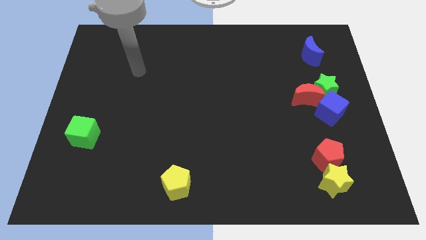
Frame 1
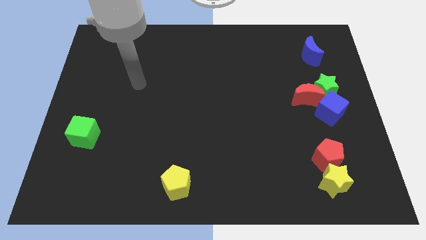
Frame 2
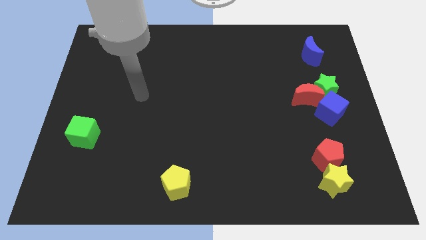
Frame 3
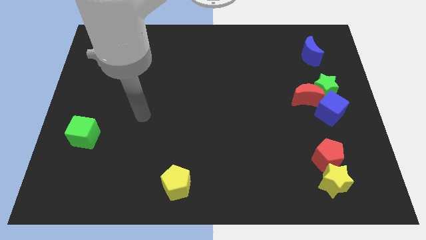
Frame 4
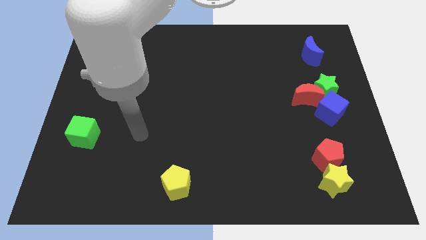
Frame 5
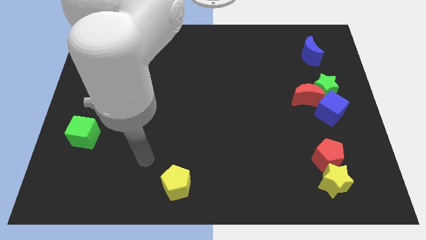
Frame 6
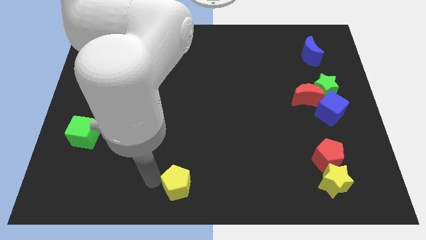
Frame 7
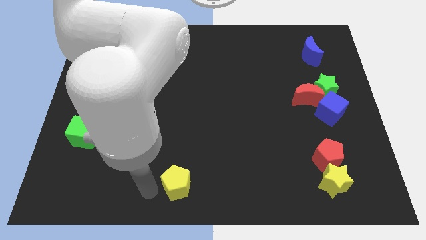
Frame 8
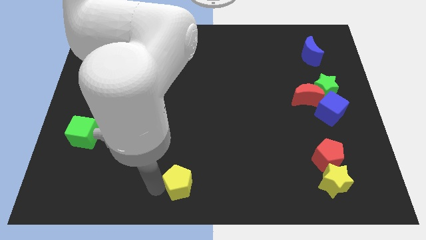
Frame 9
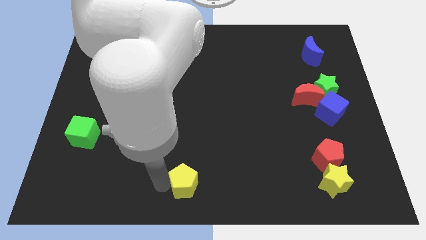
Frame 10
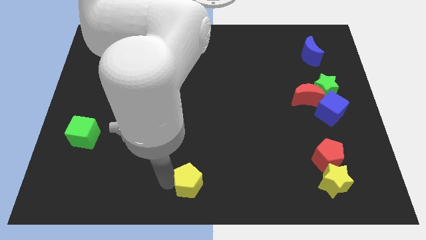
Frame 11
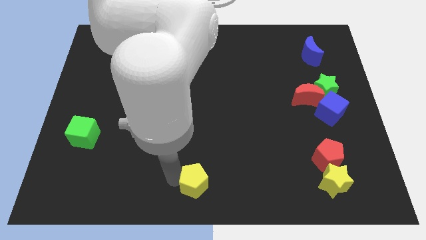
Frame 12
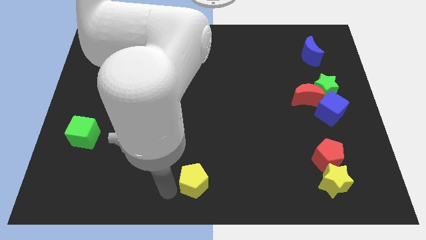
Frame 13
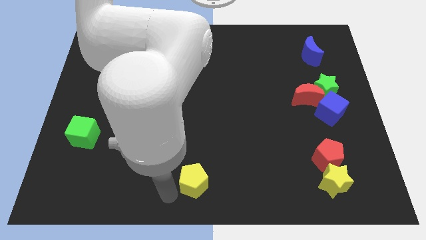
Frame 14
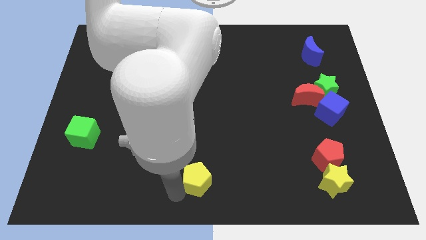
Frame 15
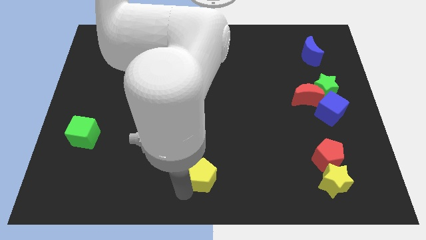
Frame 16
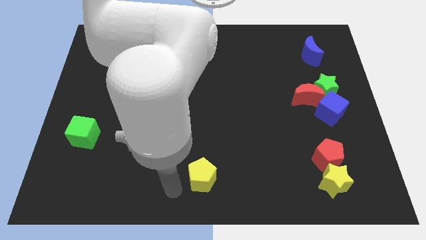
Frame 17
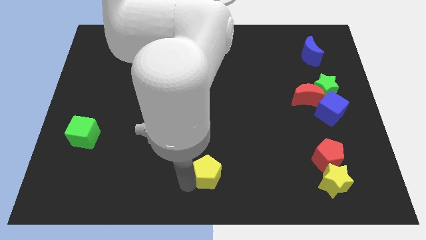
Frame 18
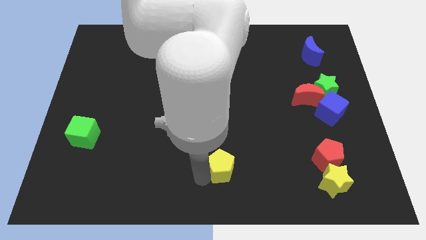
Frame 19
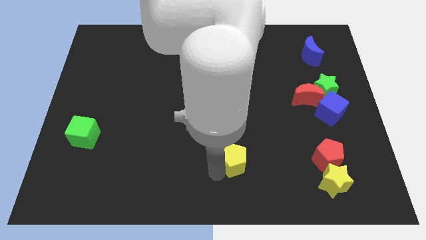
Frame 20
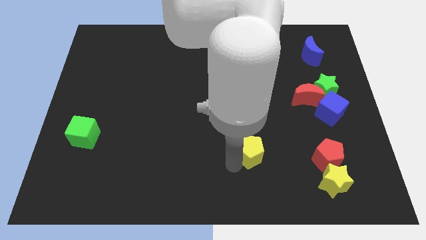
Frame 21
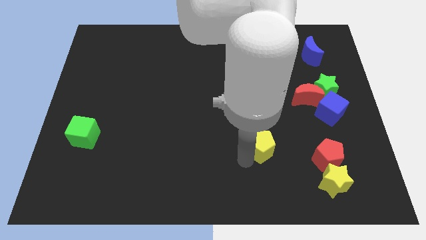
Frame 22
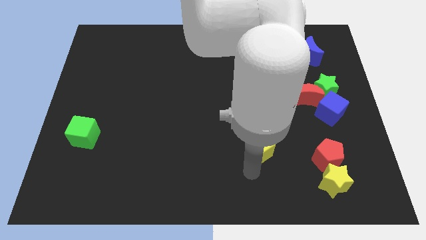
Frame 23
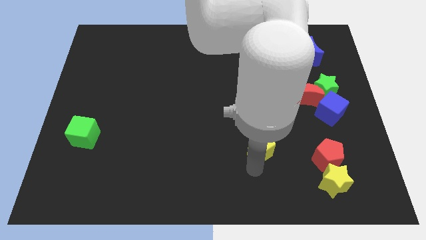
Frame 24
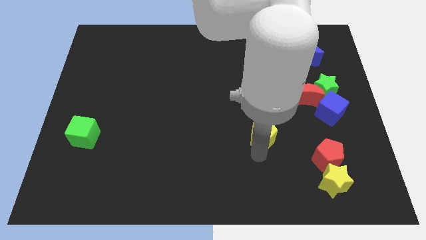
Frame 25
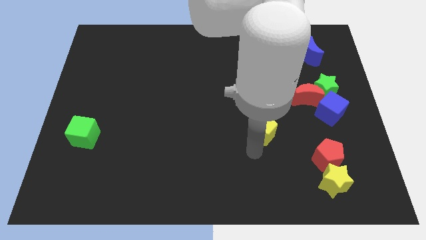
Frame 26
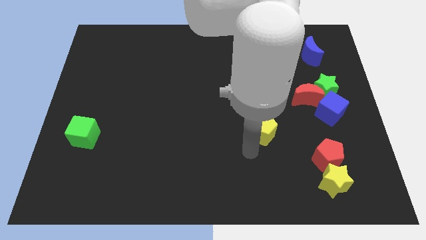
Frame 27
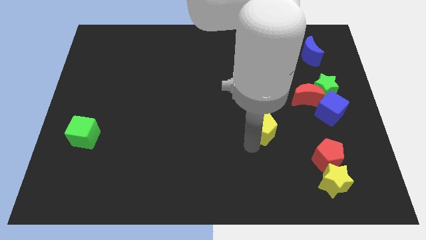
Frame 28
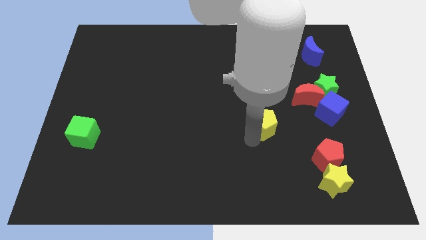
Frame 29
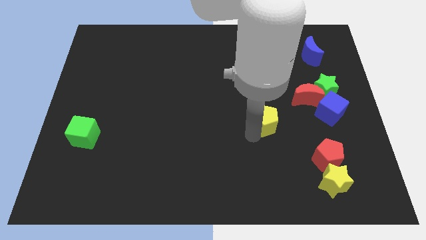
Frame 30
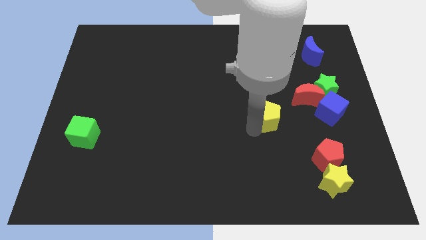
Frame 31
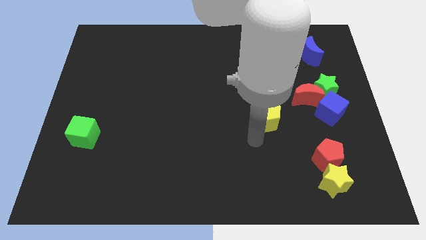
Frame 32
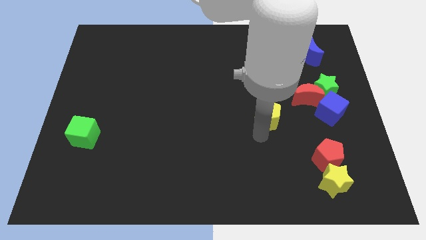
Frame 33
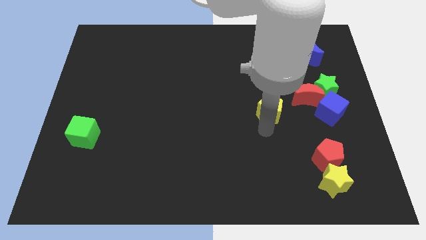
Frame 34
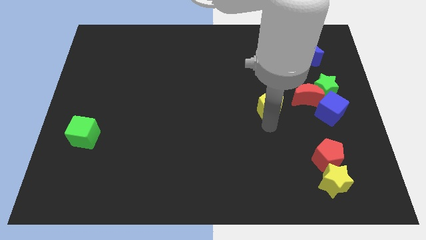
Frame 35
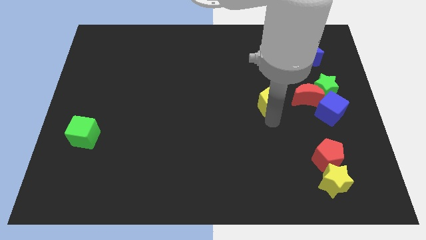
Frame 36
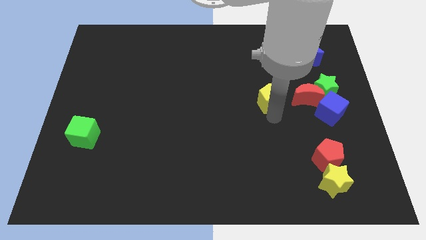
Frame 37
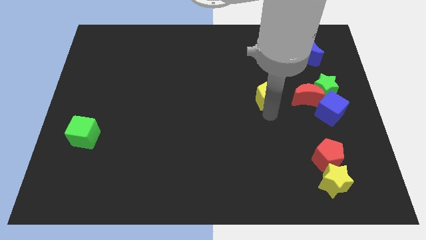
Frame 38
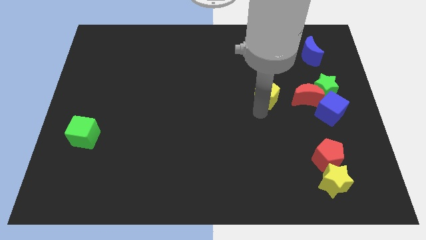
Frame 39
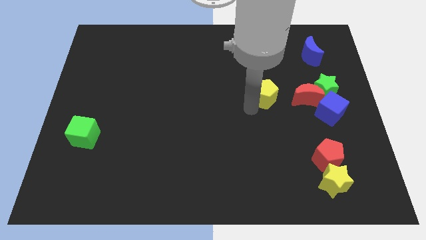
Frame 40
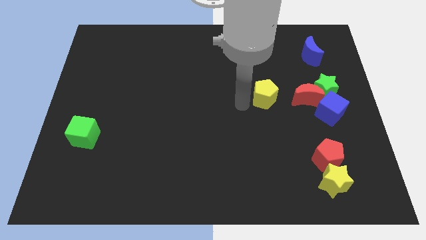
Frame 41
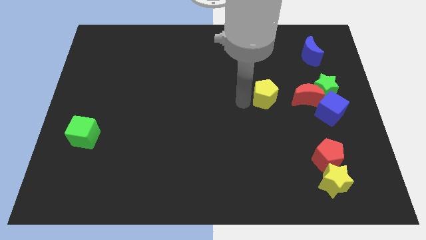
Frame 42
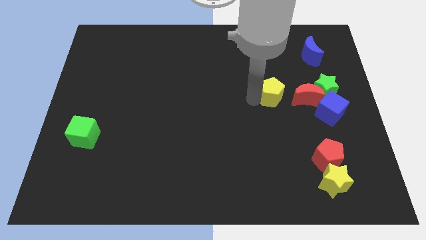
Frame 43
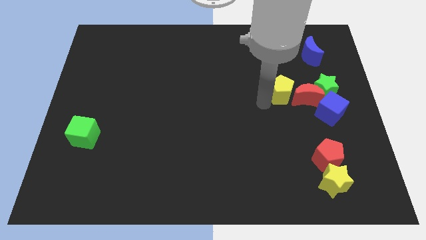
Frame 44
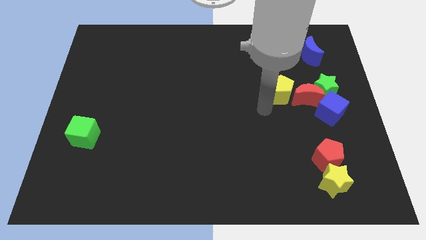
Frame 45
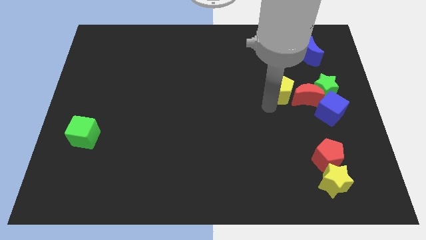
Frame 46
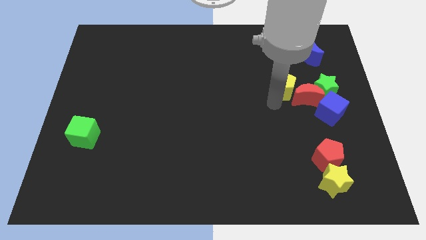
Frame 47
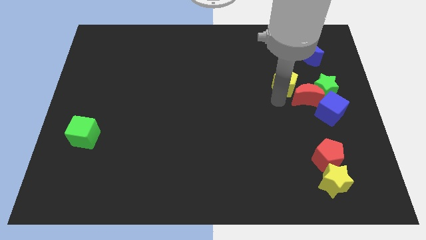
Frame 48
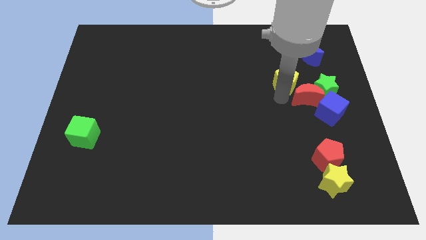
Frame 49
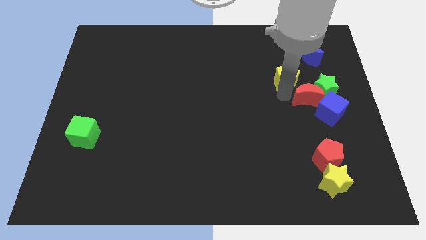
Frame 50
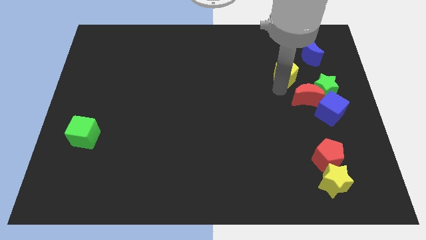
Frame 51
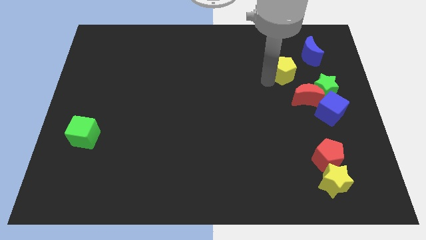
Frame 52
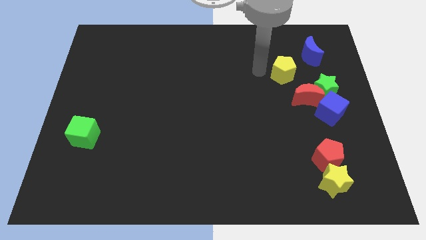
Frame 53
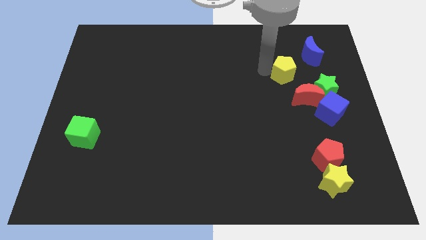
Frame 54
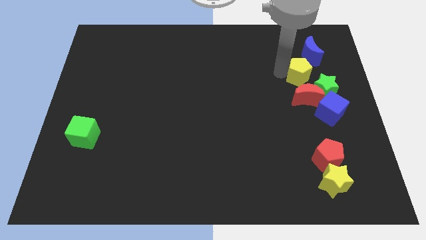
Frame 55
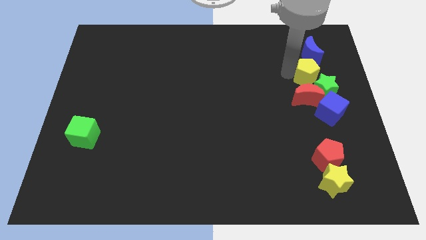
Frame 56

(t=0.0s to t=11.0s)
slide the yellow pentagon to the top of the blue cube

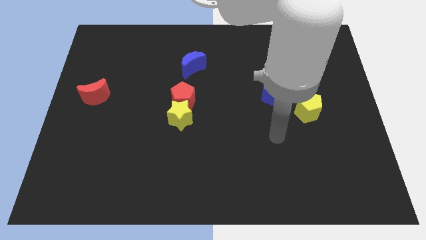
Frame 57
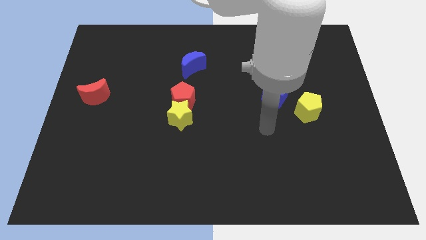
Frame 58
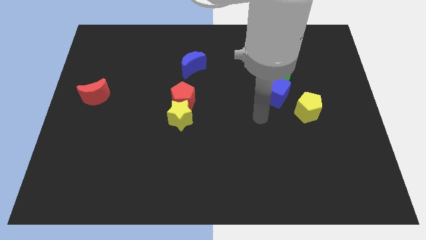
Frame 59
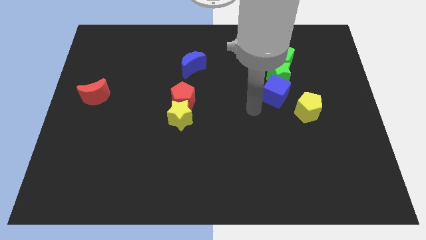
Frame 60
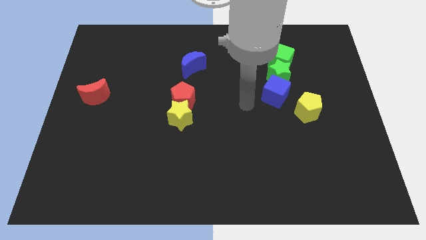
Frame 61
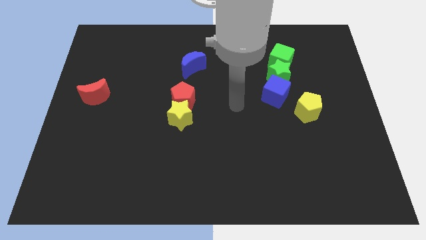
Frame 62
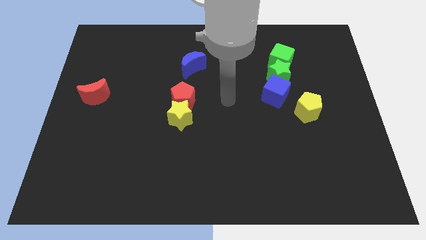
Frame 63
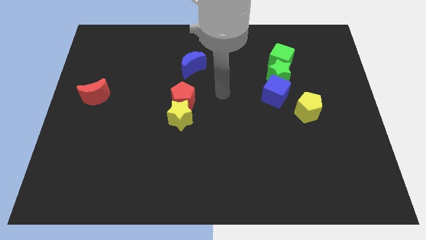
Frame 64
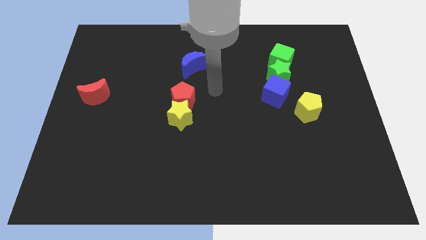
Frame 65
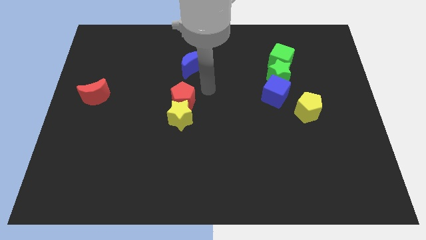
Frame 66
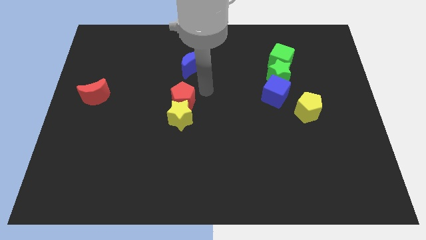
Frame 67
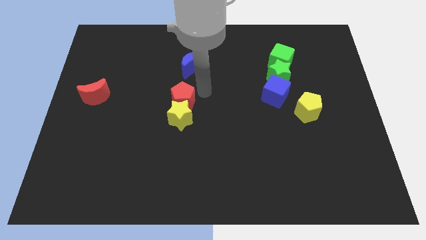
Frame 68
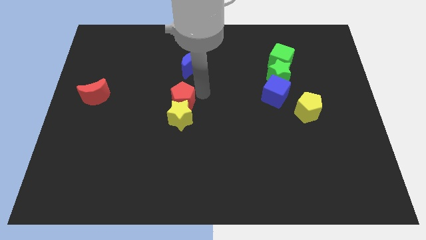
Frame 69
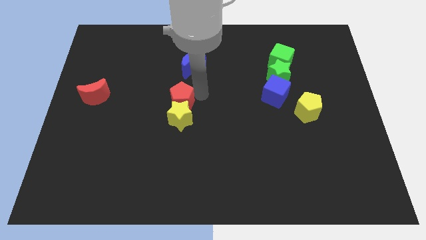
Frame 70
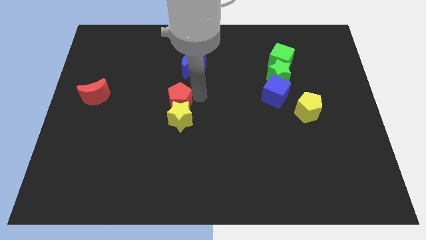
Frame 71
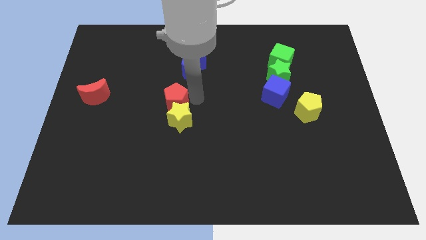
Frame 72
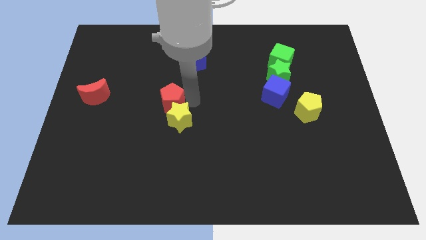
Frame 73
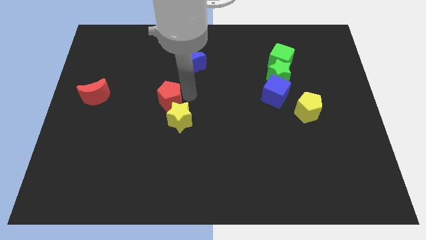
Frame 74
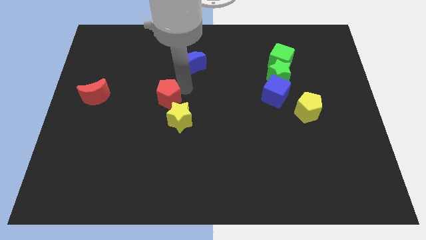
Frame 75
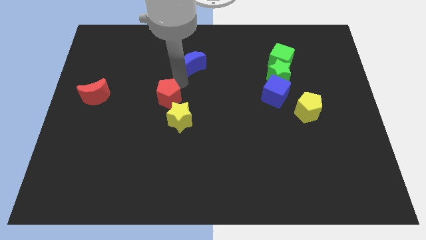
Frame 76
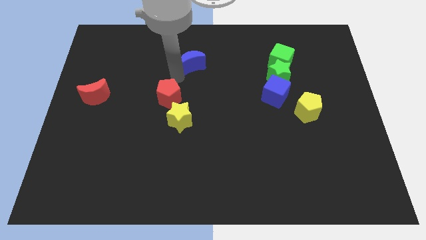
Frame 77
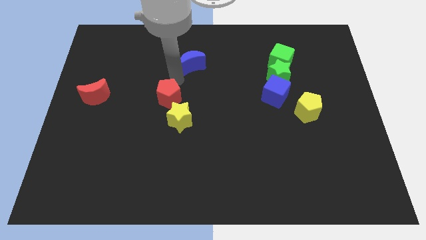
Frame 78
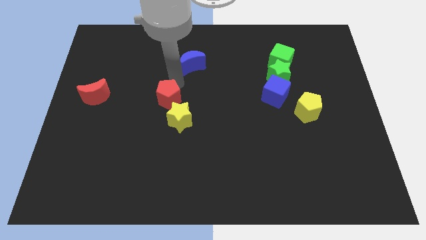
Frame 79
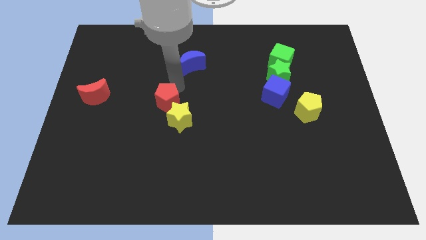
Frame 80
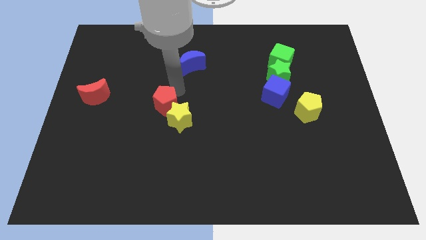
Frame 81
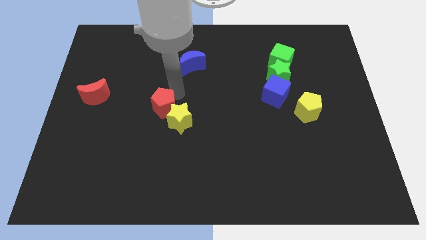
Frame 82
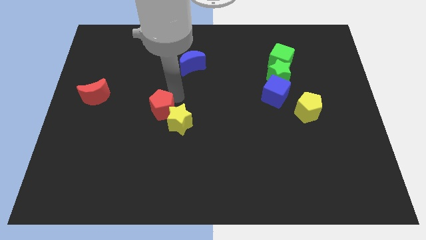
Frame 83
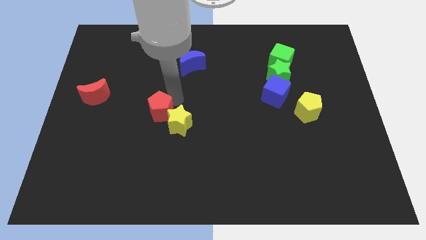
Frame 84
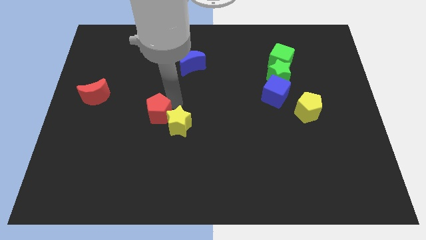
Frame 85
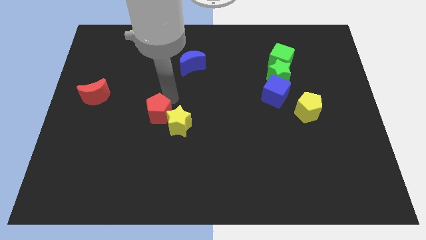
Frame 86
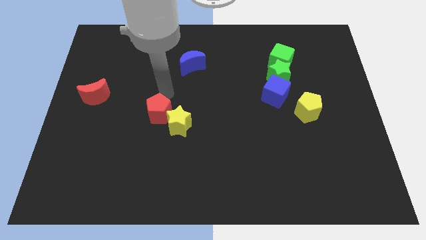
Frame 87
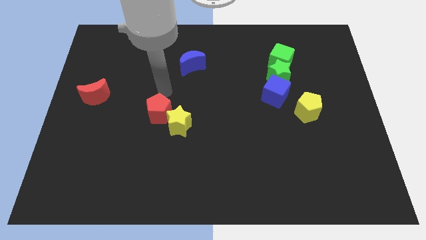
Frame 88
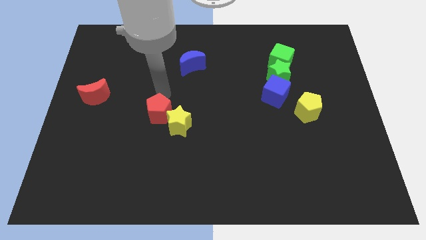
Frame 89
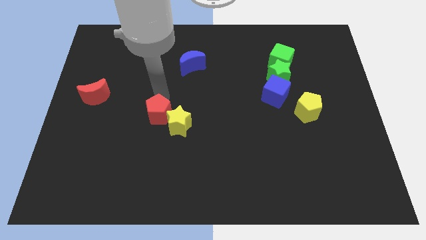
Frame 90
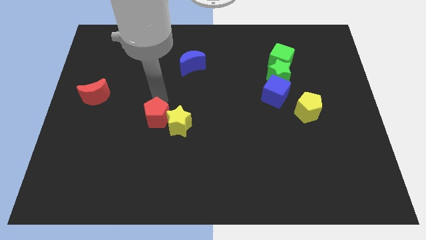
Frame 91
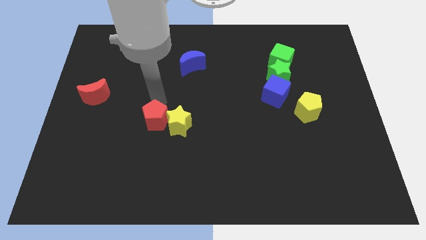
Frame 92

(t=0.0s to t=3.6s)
move the red pentagon diagonally down and to the left of the yellow star
